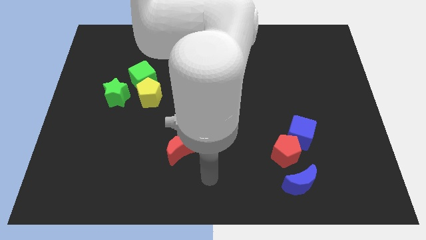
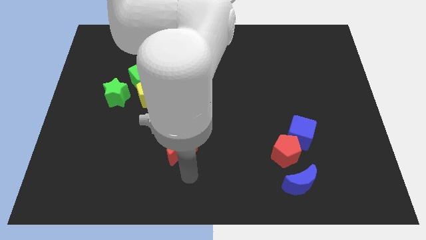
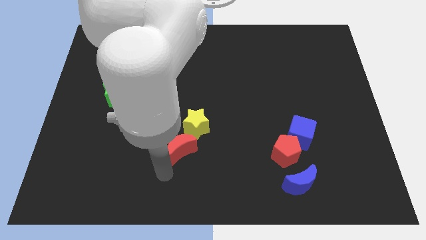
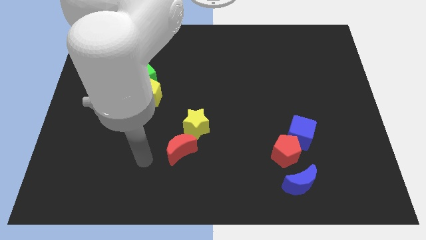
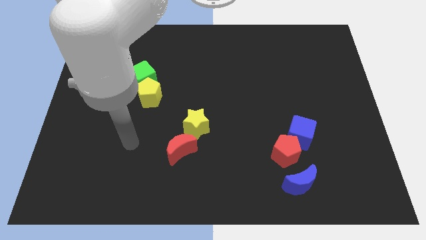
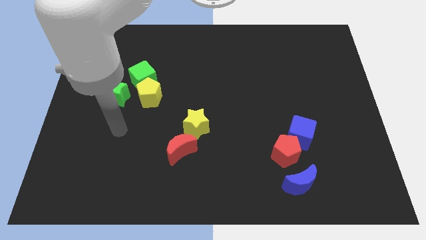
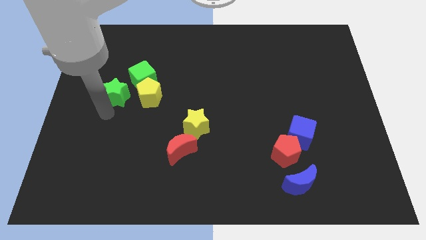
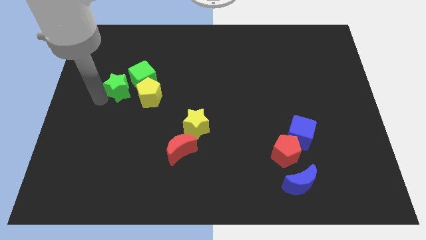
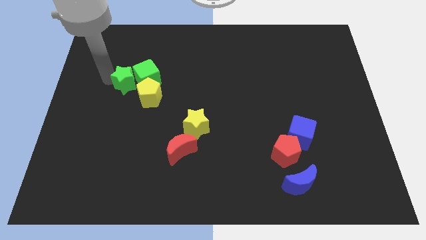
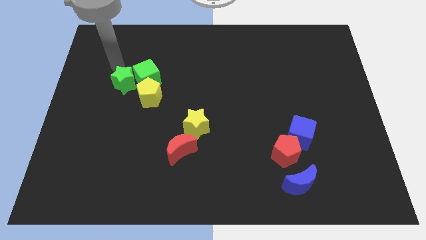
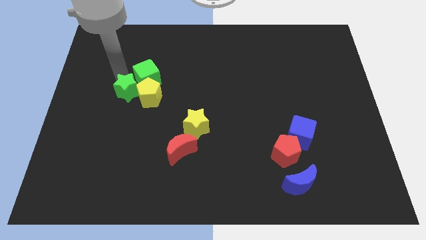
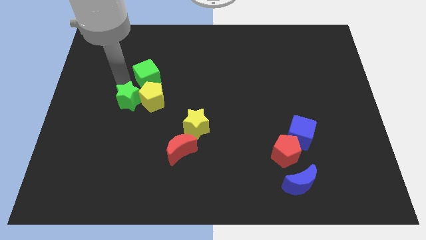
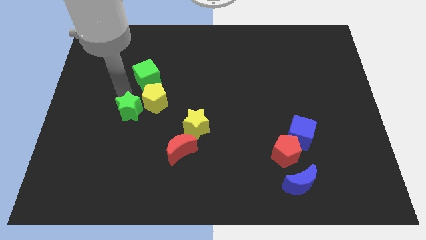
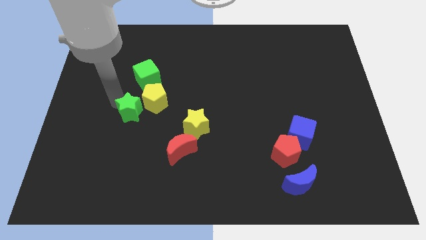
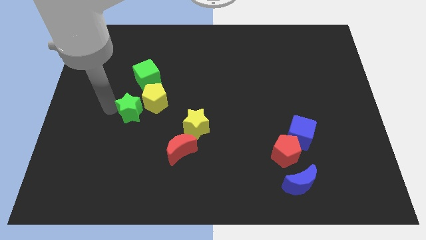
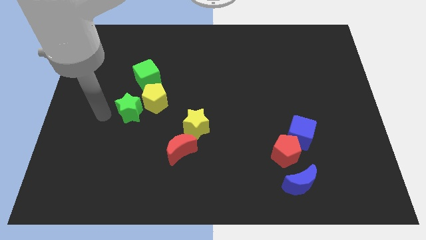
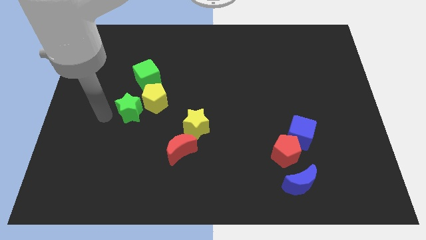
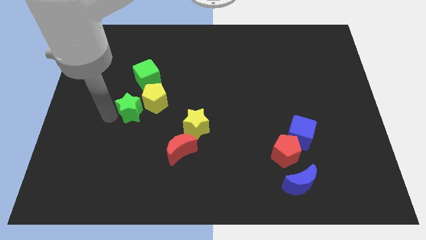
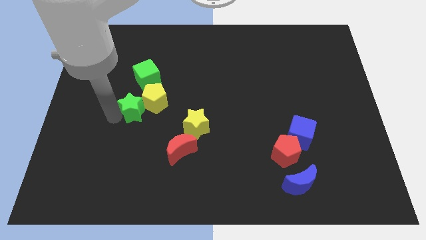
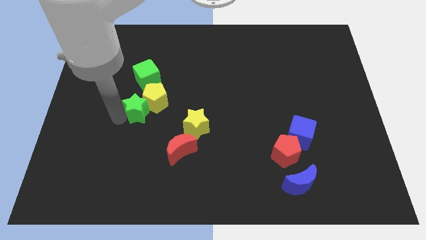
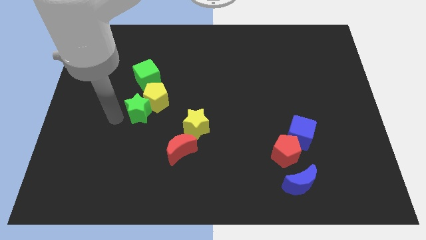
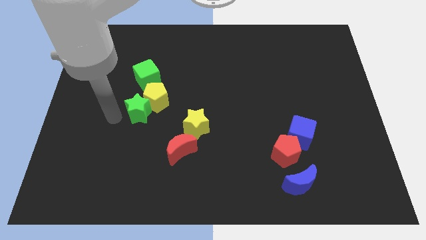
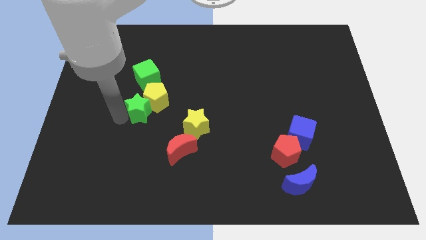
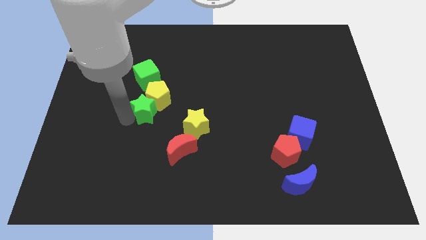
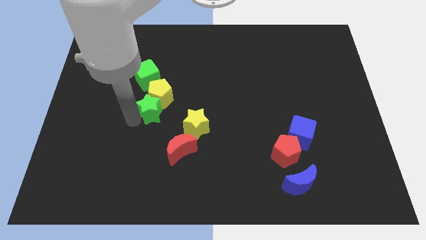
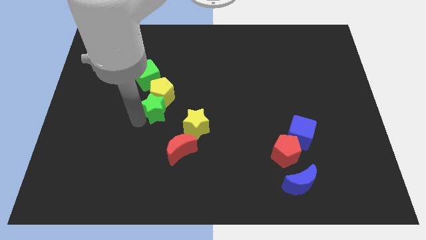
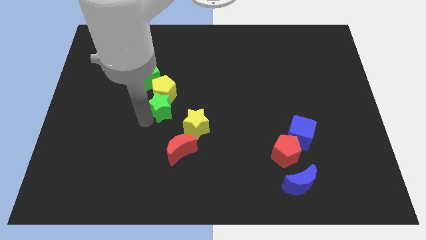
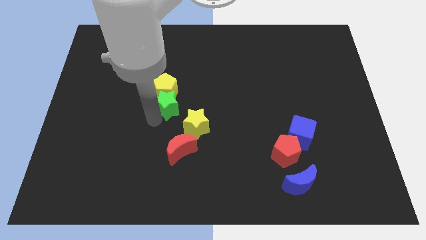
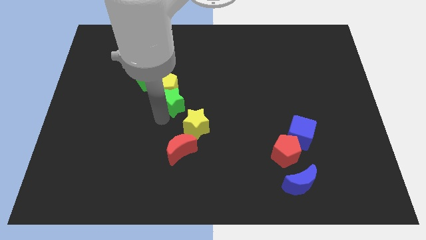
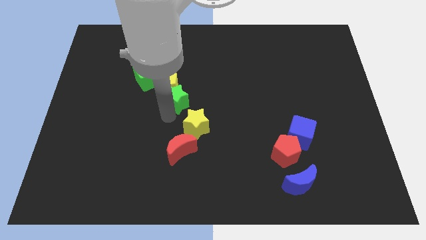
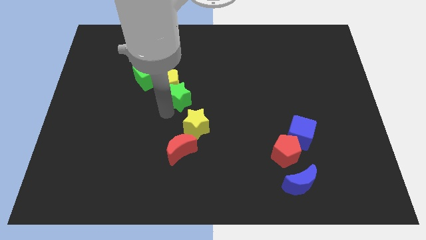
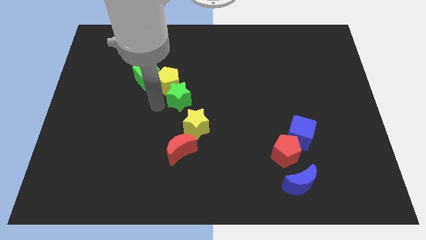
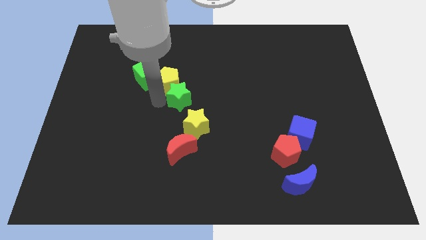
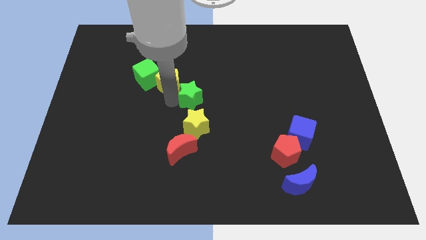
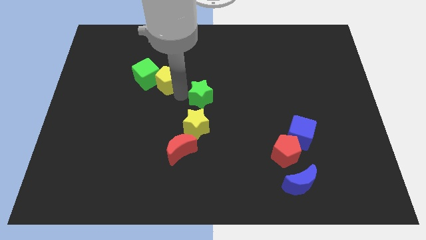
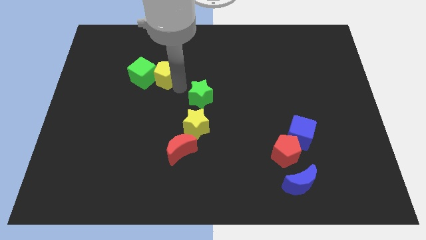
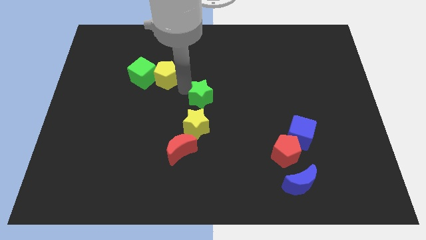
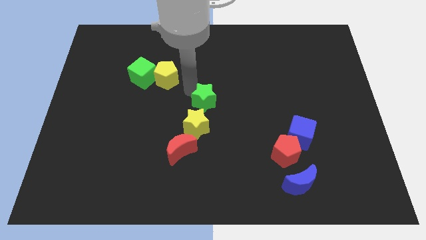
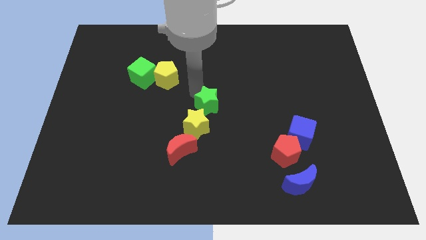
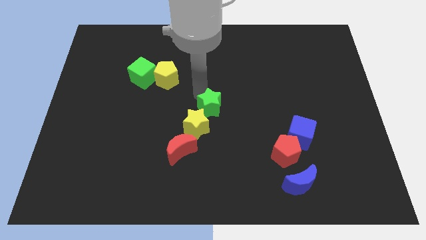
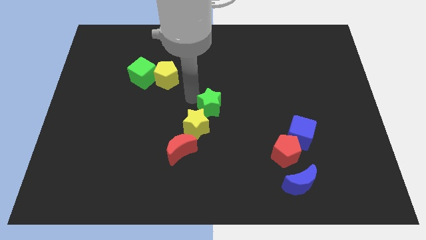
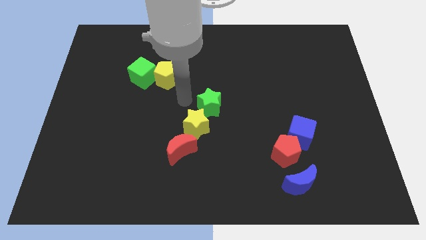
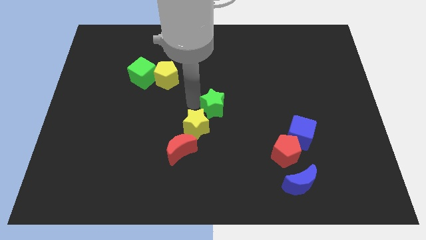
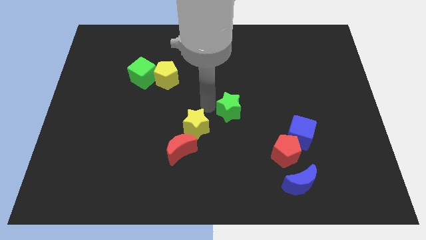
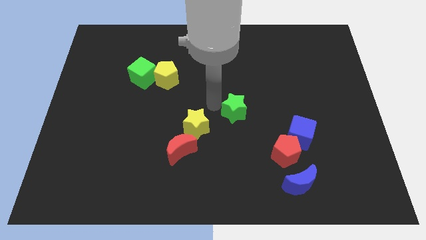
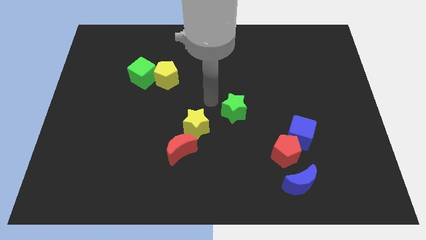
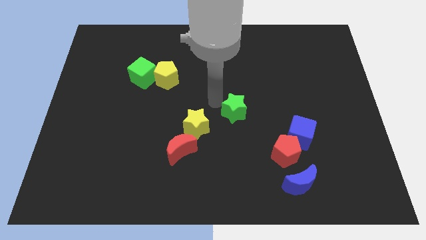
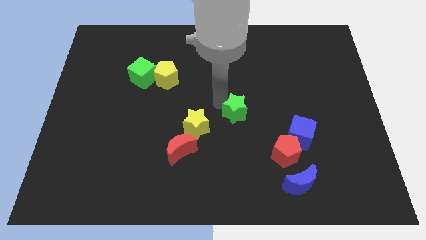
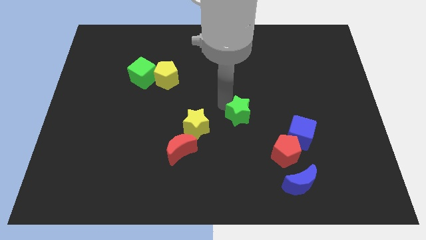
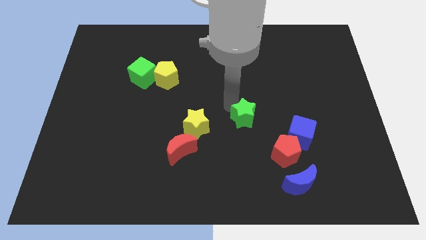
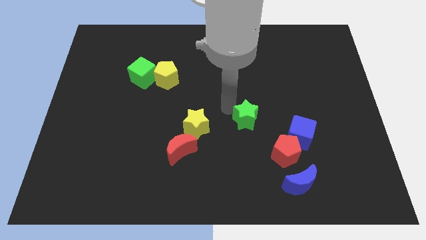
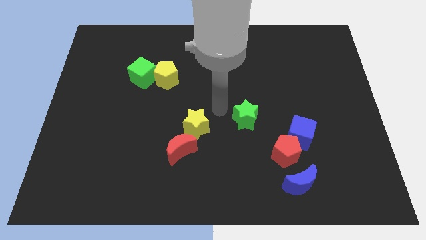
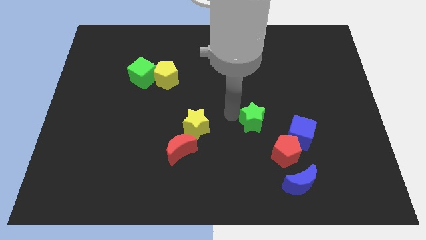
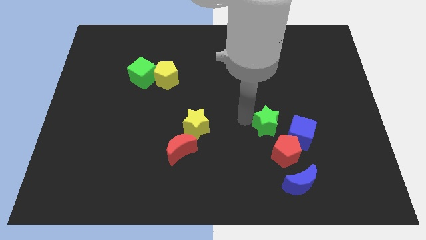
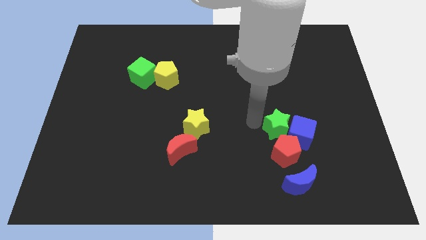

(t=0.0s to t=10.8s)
push the green star close to the blue cube

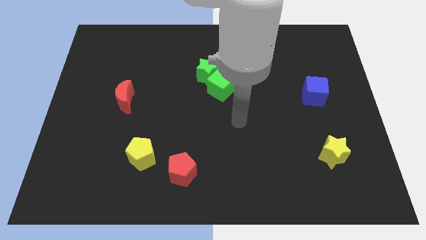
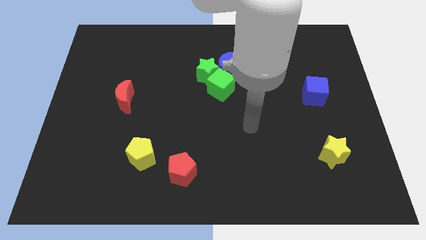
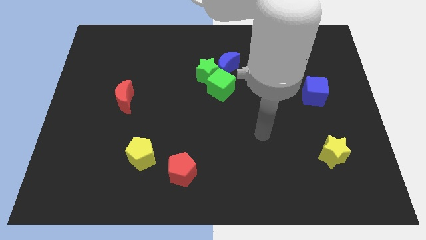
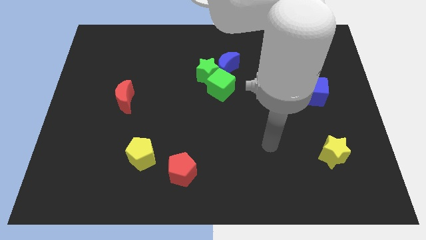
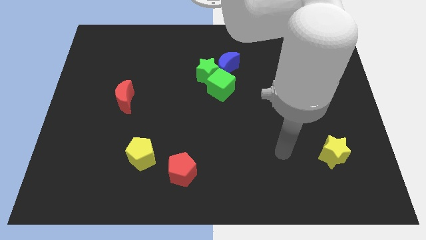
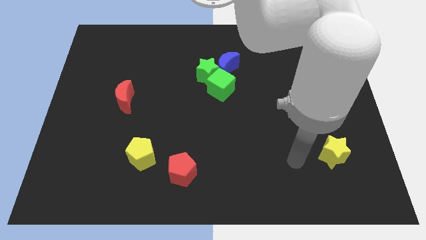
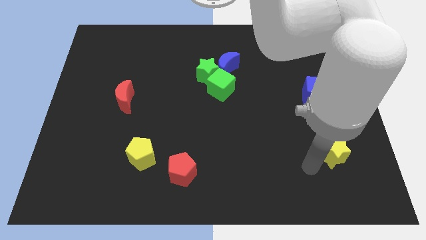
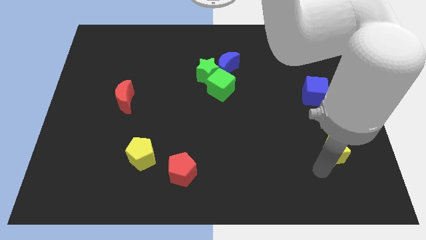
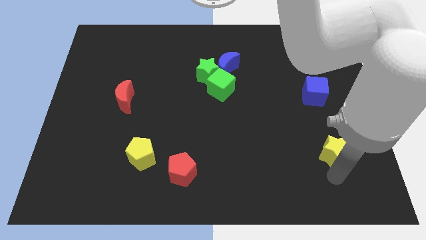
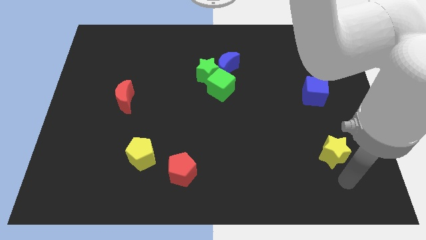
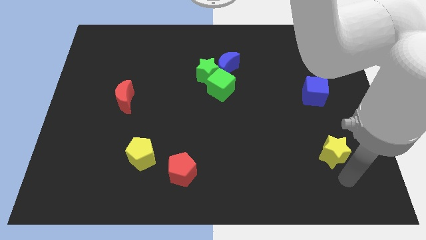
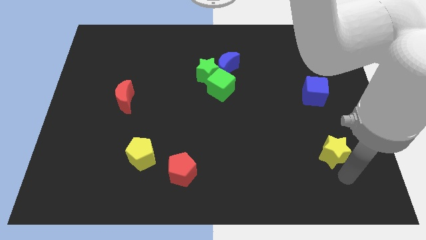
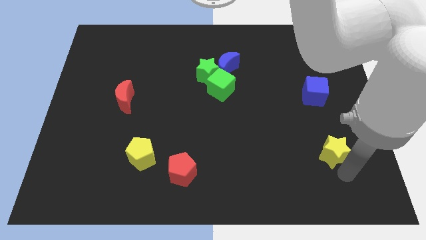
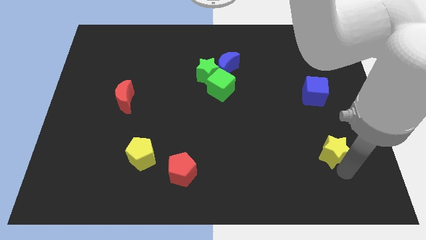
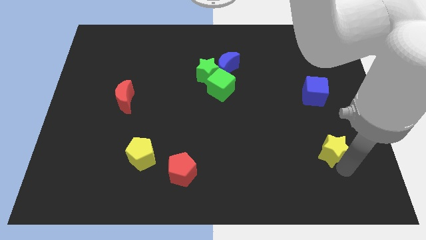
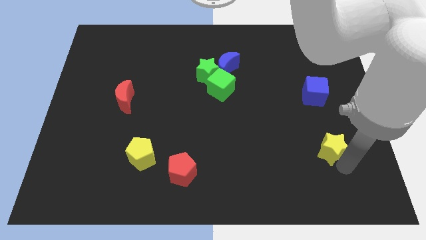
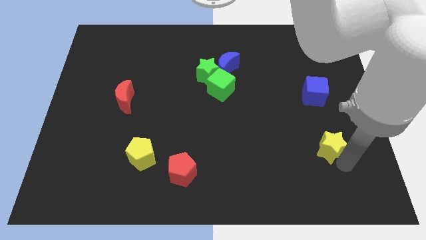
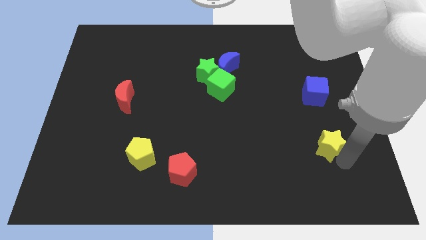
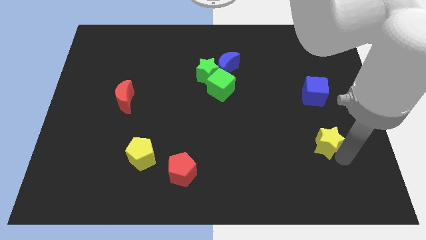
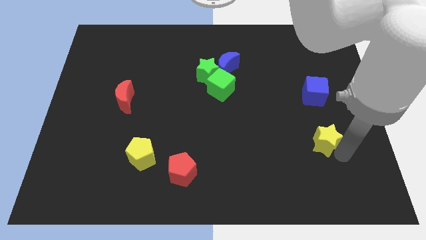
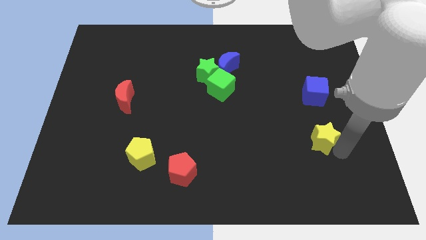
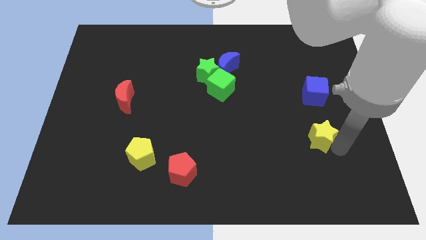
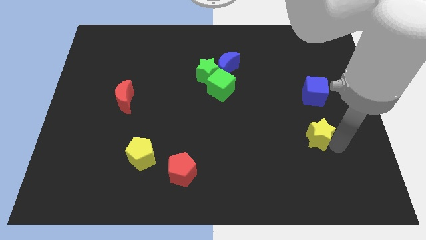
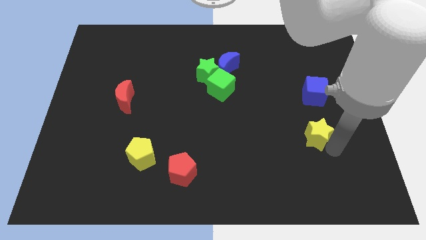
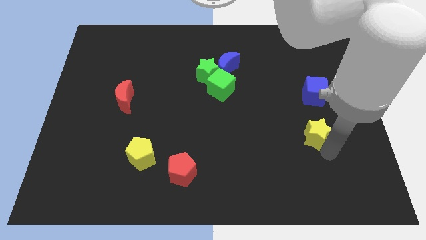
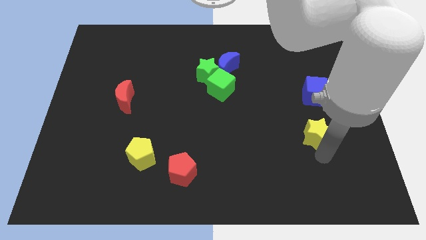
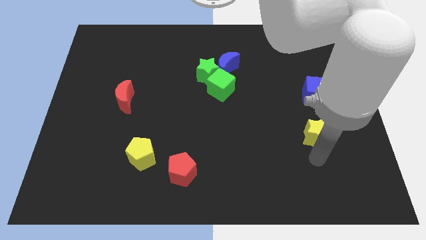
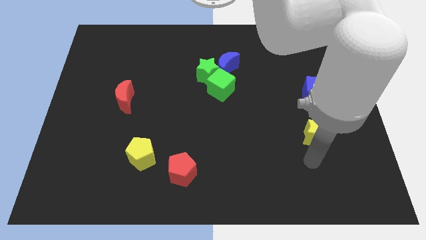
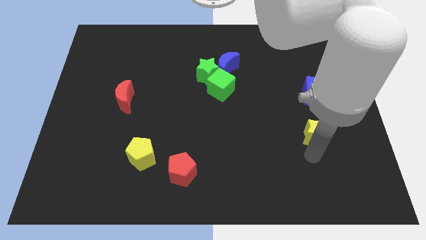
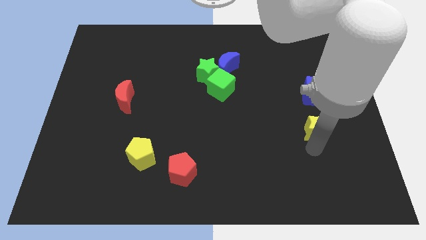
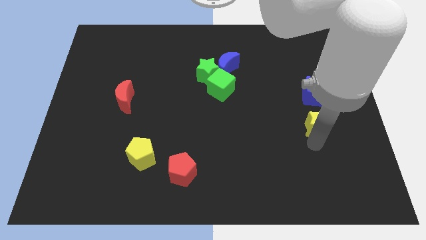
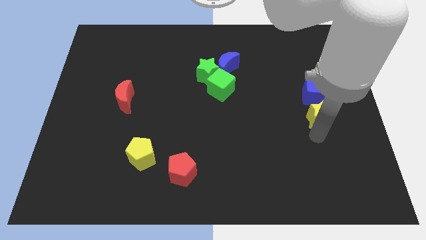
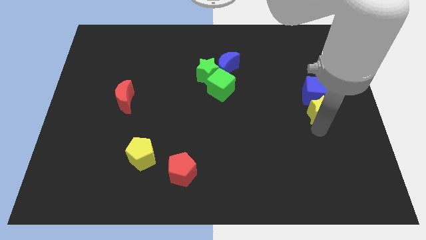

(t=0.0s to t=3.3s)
move the yellow star close to the blue cube
